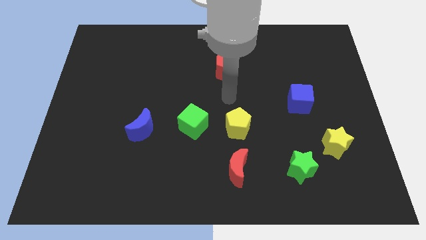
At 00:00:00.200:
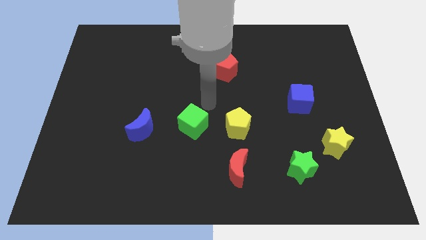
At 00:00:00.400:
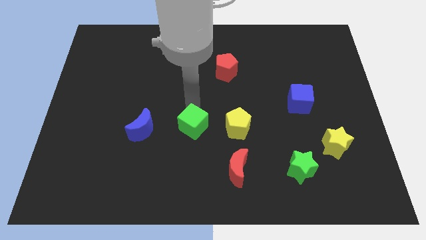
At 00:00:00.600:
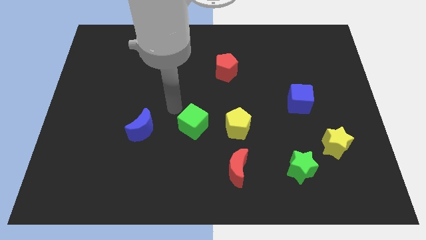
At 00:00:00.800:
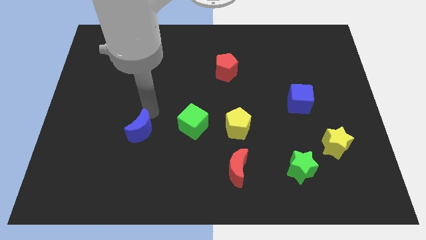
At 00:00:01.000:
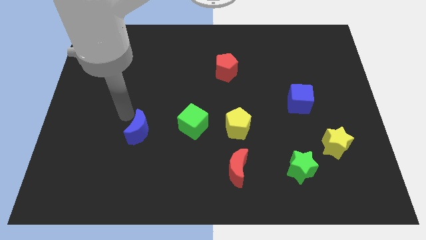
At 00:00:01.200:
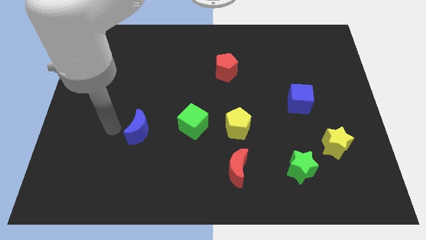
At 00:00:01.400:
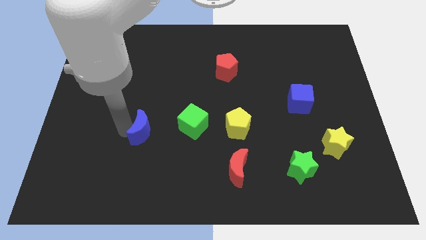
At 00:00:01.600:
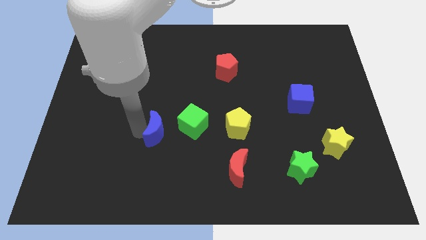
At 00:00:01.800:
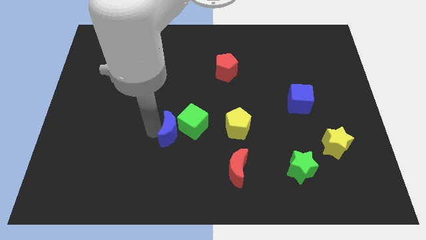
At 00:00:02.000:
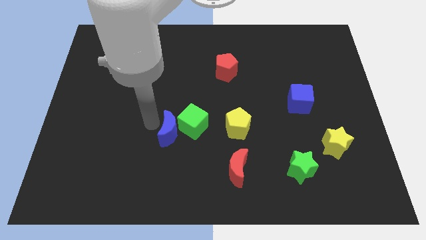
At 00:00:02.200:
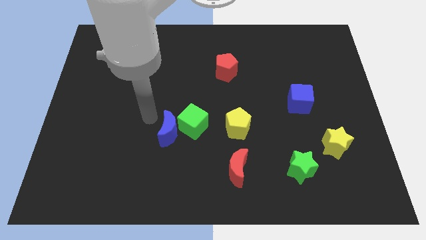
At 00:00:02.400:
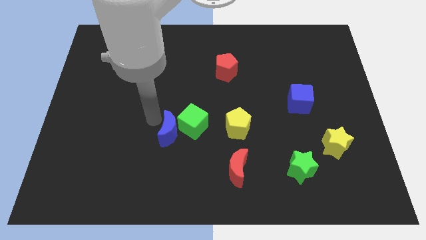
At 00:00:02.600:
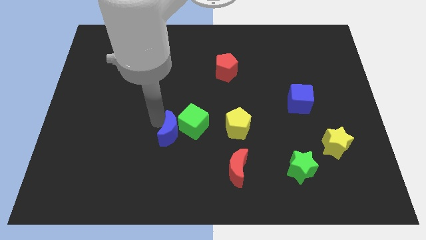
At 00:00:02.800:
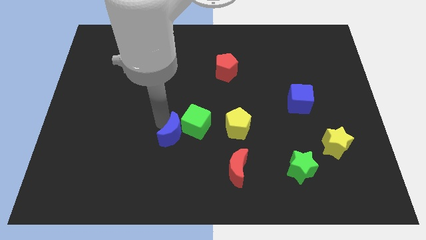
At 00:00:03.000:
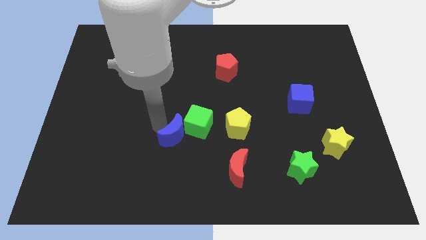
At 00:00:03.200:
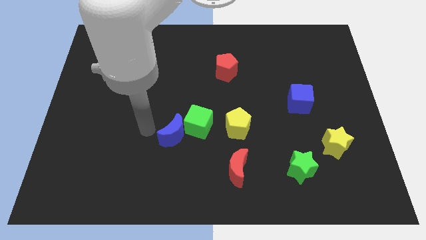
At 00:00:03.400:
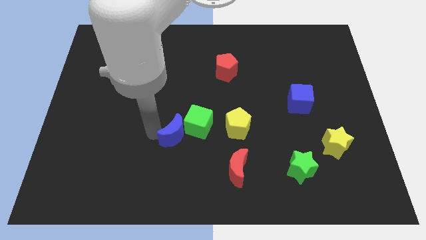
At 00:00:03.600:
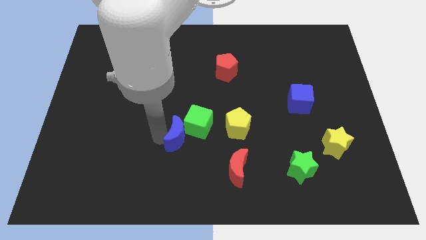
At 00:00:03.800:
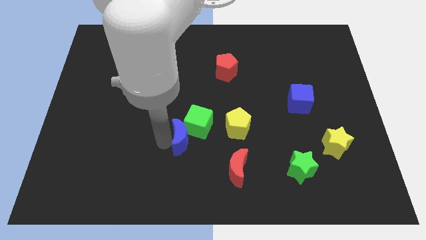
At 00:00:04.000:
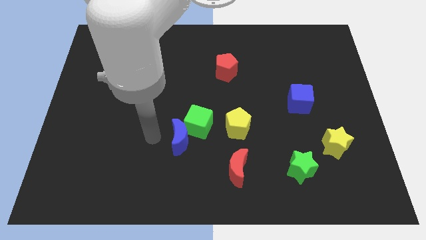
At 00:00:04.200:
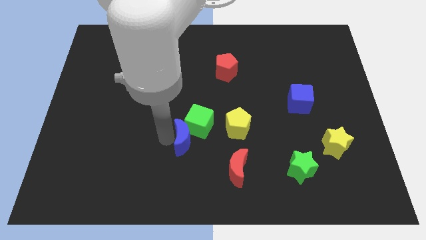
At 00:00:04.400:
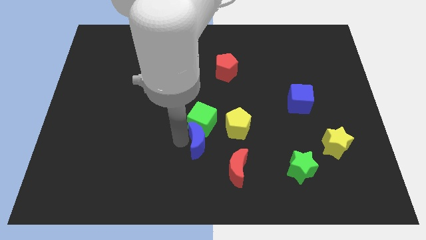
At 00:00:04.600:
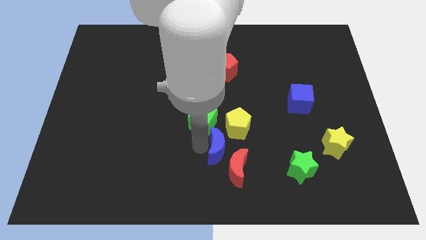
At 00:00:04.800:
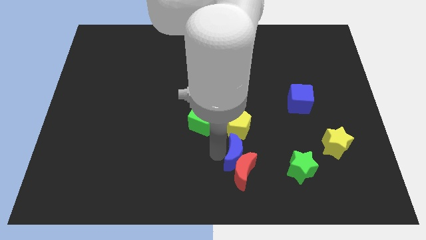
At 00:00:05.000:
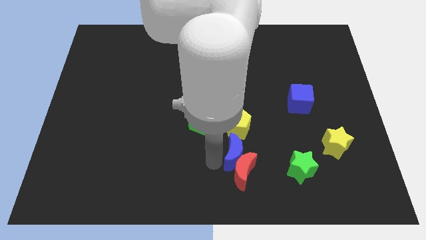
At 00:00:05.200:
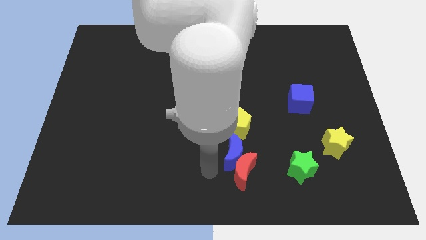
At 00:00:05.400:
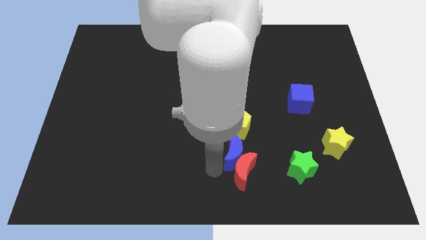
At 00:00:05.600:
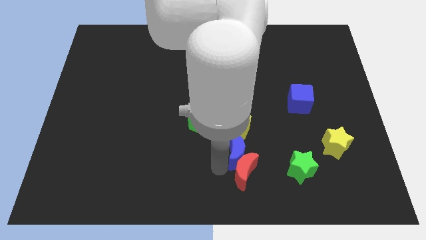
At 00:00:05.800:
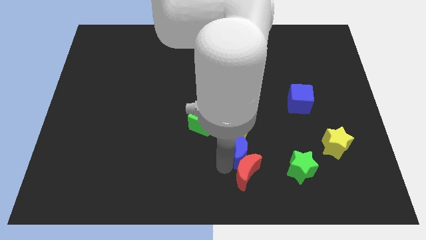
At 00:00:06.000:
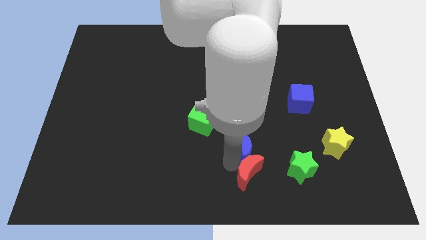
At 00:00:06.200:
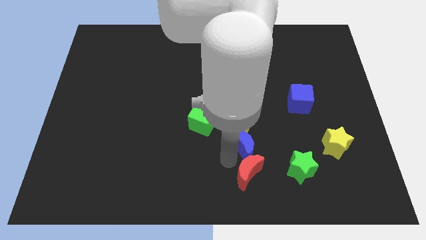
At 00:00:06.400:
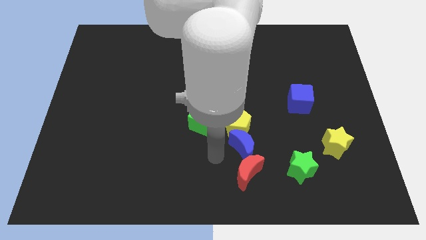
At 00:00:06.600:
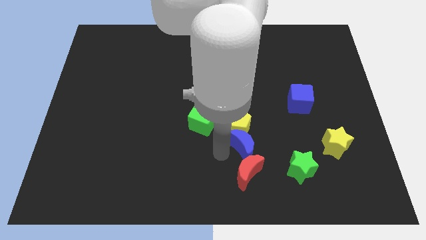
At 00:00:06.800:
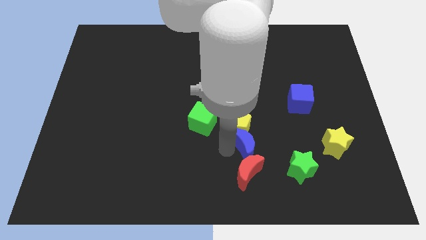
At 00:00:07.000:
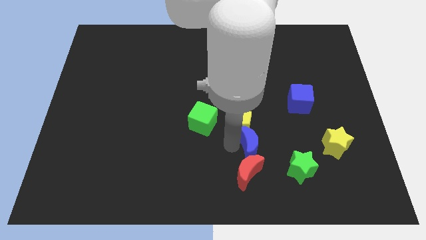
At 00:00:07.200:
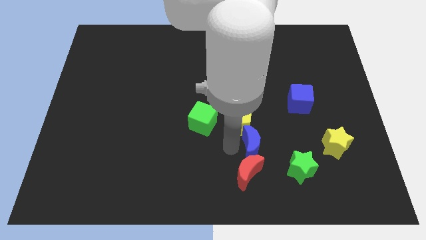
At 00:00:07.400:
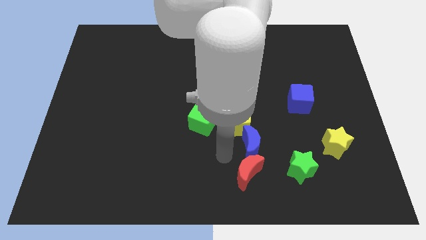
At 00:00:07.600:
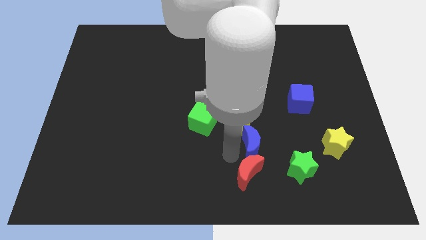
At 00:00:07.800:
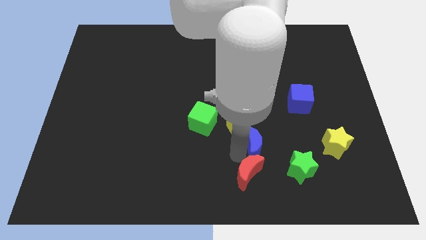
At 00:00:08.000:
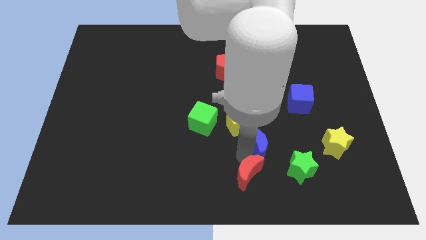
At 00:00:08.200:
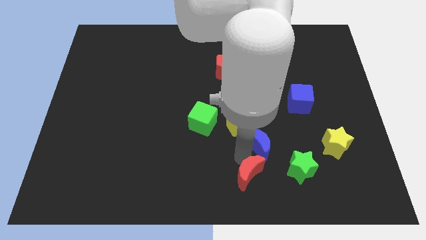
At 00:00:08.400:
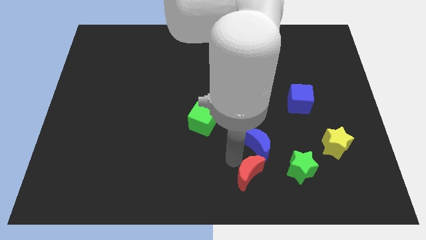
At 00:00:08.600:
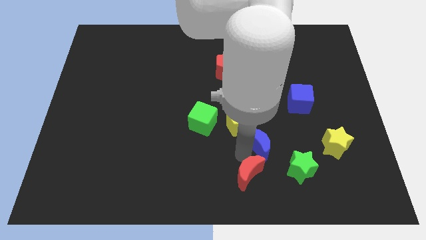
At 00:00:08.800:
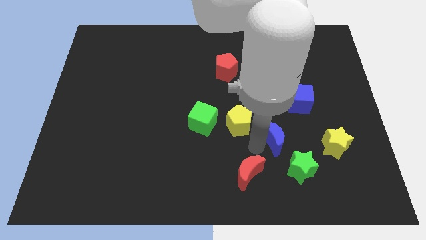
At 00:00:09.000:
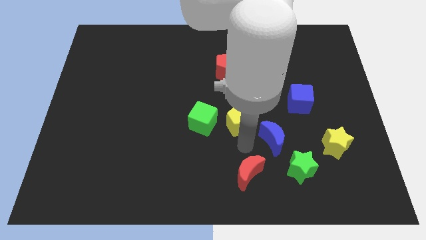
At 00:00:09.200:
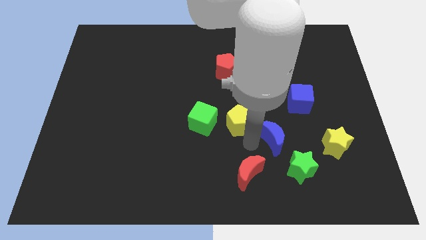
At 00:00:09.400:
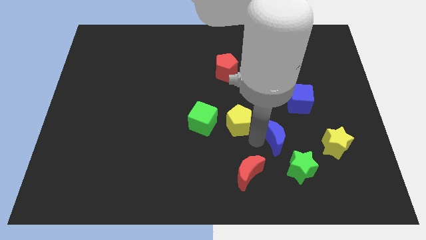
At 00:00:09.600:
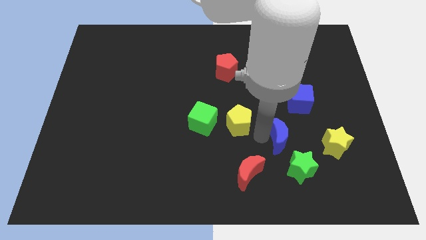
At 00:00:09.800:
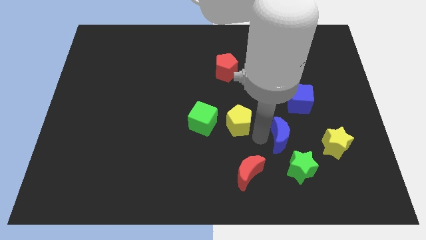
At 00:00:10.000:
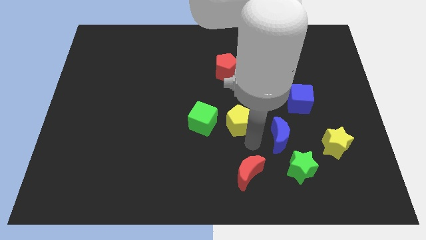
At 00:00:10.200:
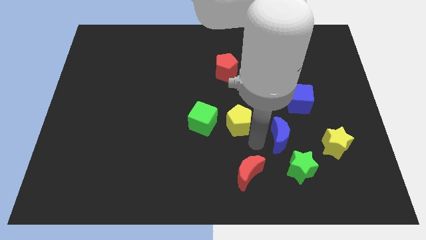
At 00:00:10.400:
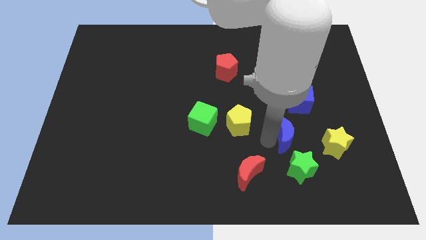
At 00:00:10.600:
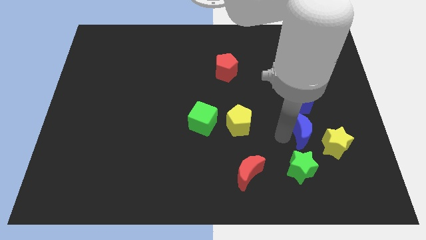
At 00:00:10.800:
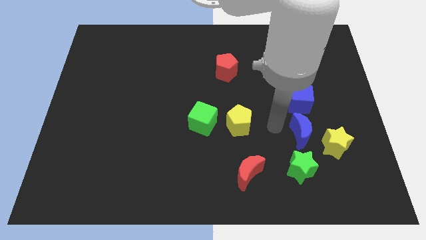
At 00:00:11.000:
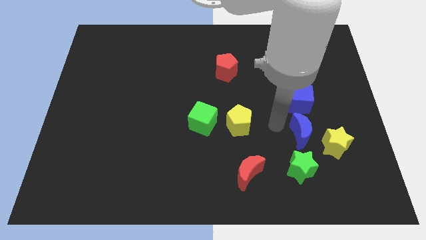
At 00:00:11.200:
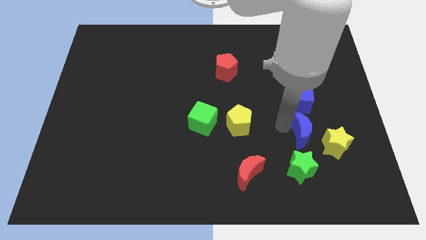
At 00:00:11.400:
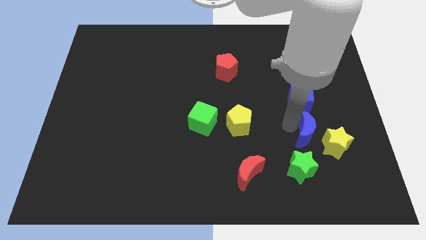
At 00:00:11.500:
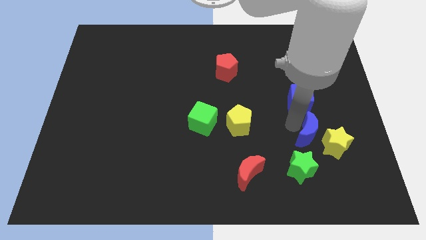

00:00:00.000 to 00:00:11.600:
push the blue moon next to the yellow star

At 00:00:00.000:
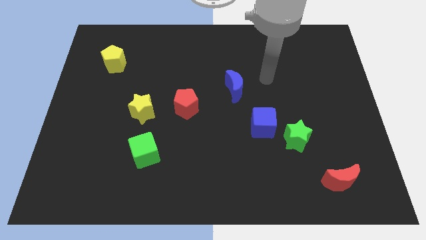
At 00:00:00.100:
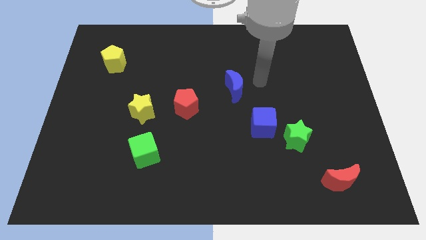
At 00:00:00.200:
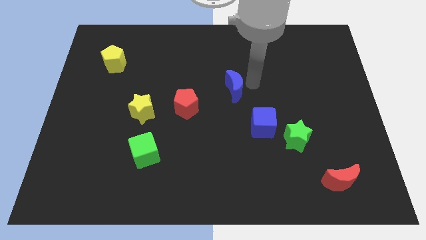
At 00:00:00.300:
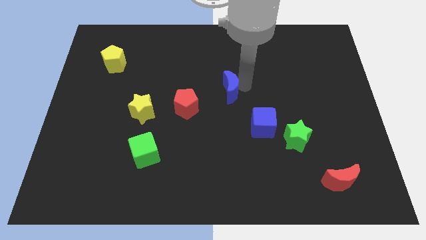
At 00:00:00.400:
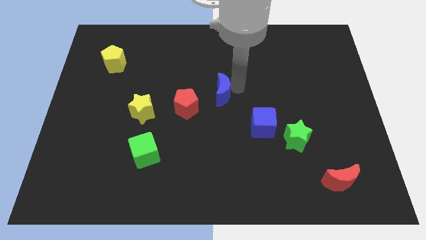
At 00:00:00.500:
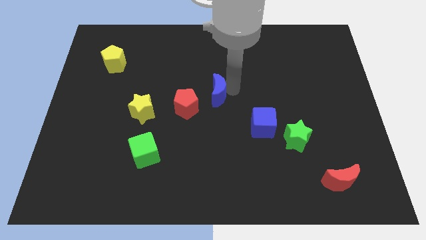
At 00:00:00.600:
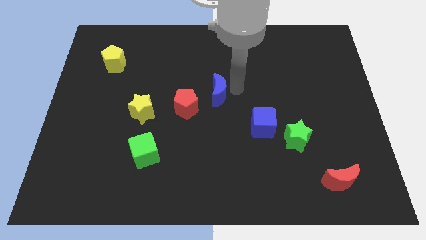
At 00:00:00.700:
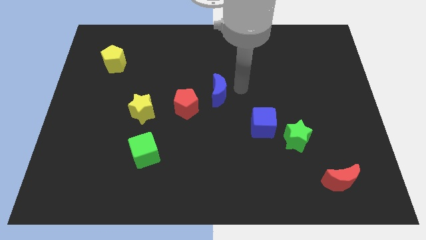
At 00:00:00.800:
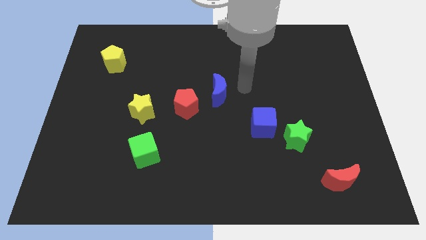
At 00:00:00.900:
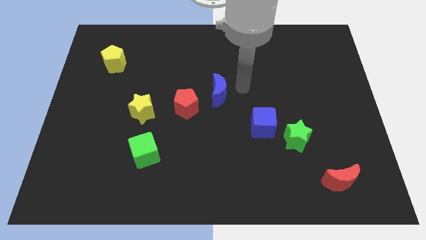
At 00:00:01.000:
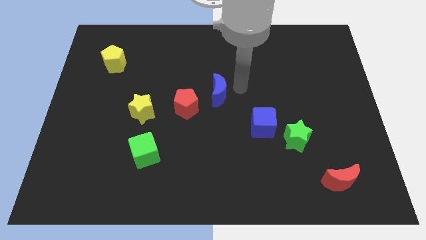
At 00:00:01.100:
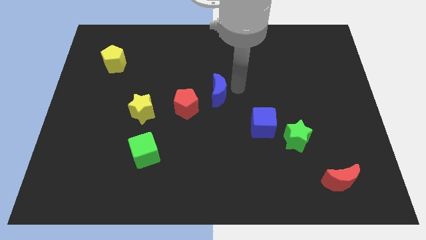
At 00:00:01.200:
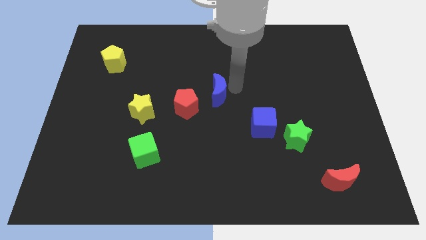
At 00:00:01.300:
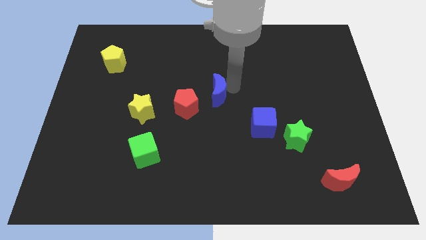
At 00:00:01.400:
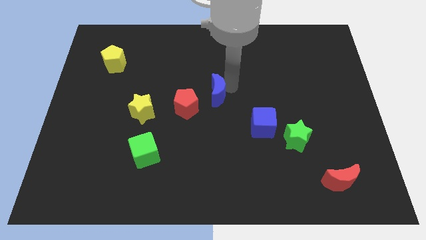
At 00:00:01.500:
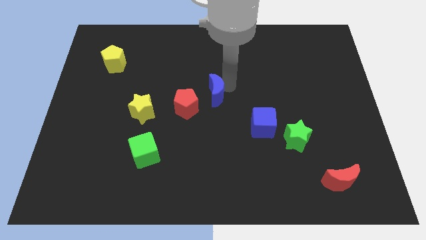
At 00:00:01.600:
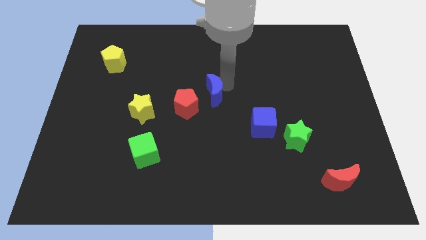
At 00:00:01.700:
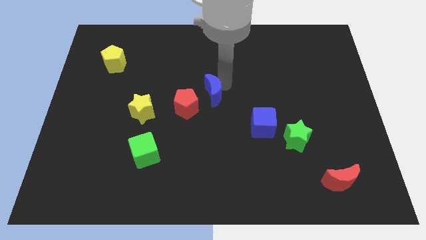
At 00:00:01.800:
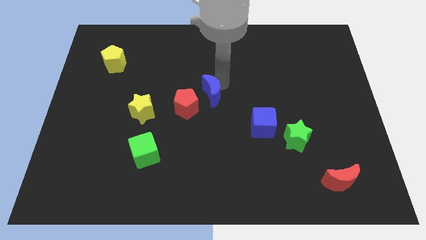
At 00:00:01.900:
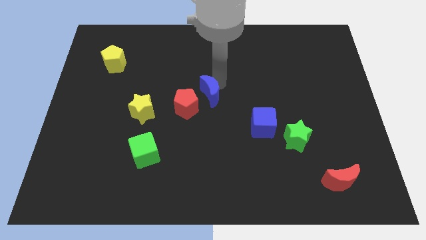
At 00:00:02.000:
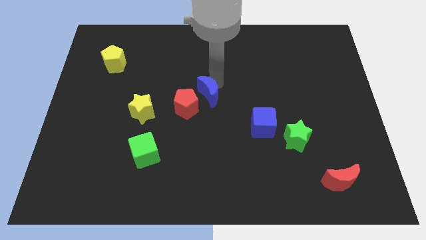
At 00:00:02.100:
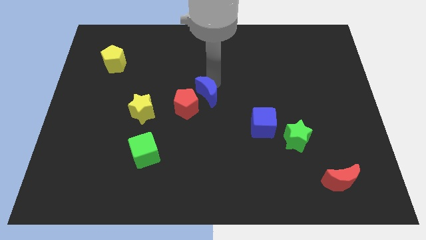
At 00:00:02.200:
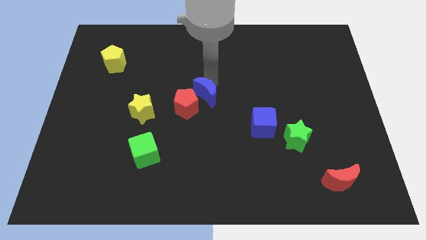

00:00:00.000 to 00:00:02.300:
put the blue moon to the red pentagon
